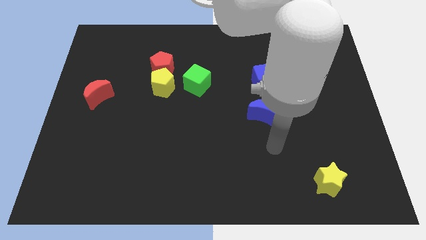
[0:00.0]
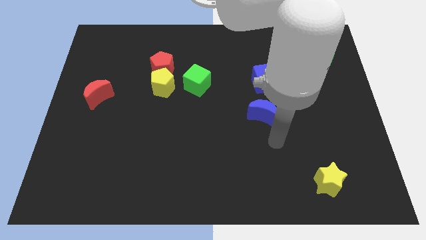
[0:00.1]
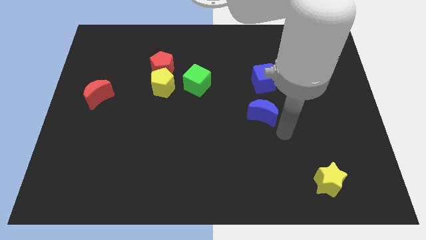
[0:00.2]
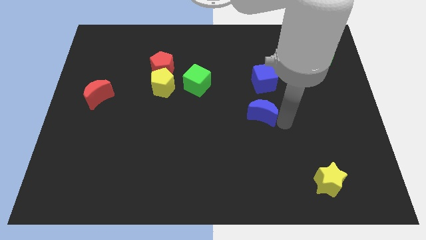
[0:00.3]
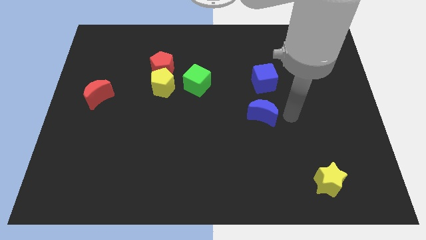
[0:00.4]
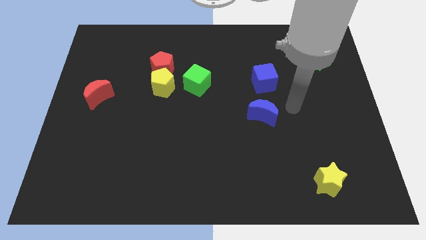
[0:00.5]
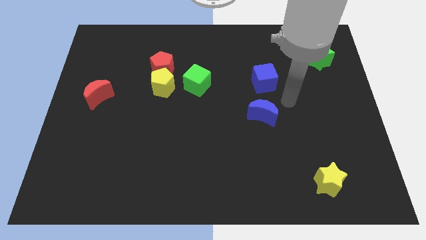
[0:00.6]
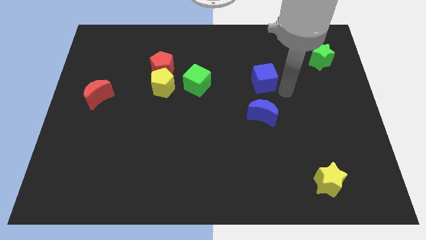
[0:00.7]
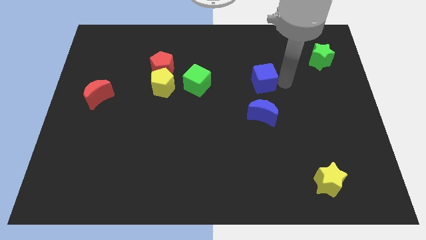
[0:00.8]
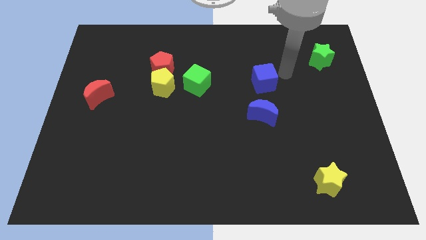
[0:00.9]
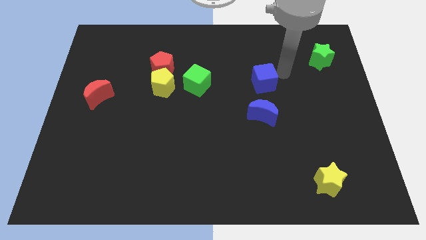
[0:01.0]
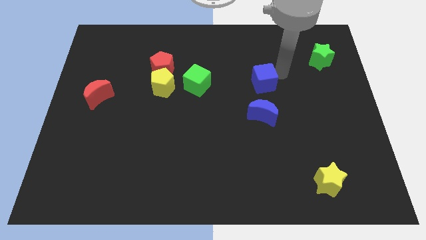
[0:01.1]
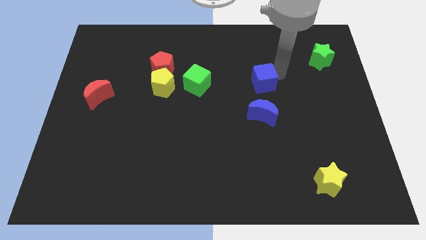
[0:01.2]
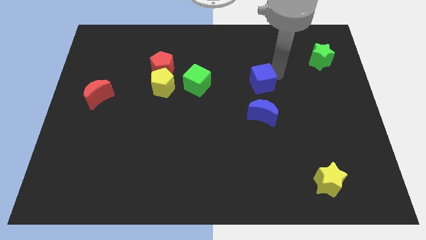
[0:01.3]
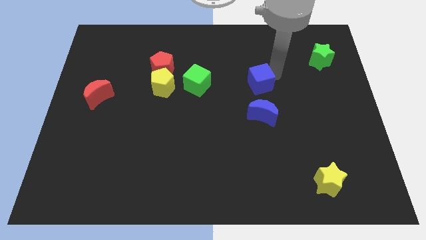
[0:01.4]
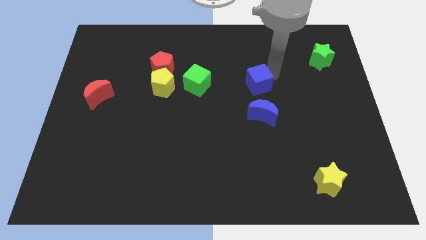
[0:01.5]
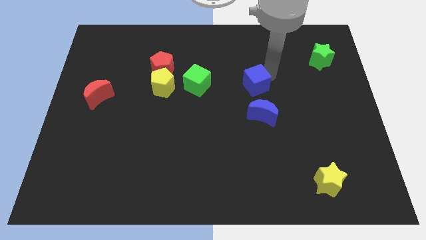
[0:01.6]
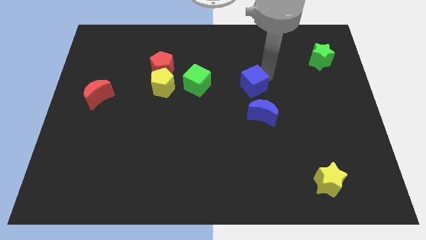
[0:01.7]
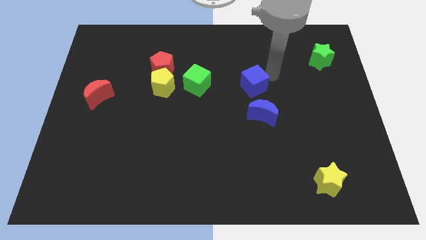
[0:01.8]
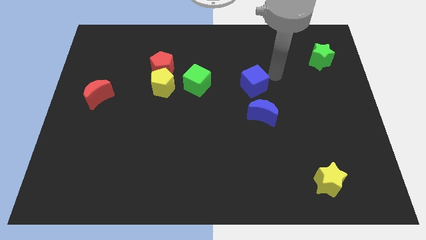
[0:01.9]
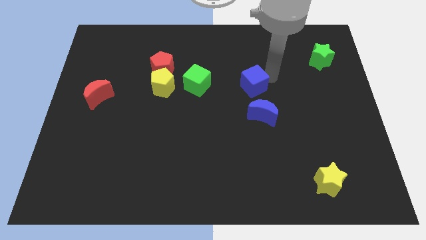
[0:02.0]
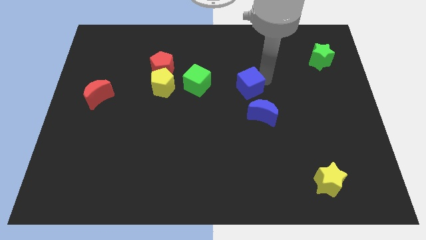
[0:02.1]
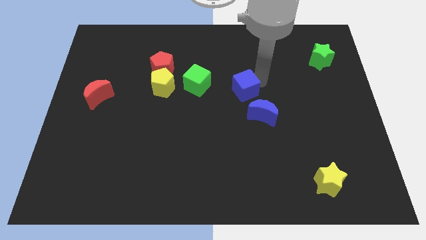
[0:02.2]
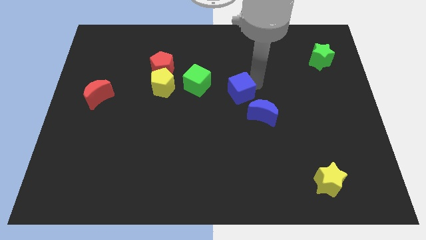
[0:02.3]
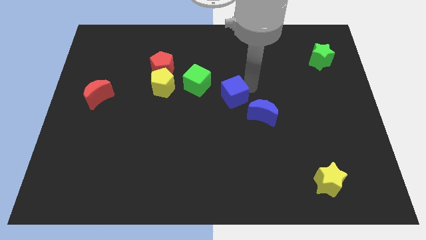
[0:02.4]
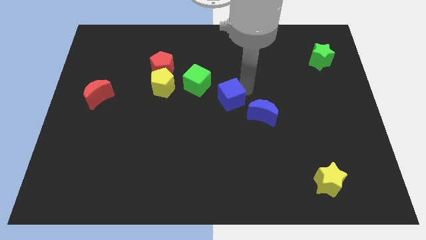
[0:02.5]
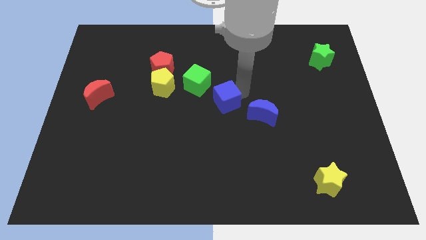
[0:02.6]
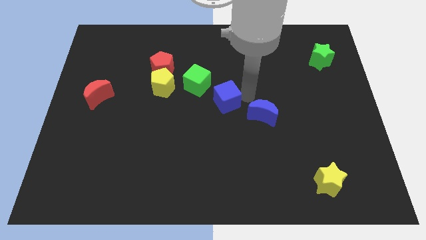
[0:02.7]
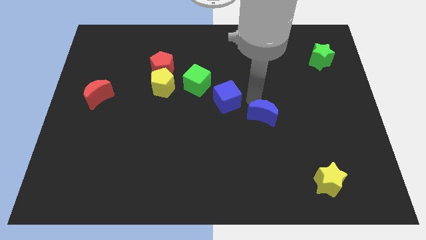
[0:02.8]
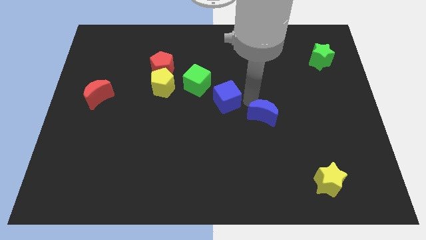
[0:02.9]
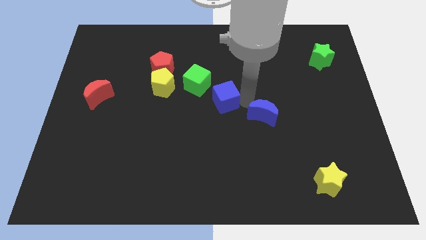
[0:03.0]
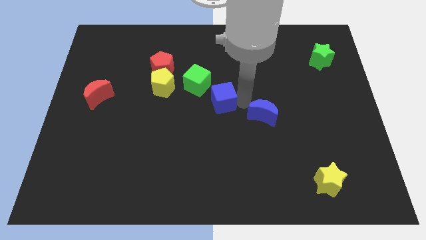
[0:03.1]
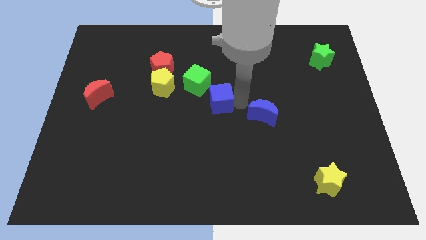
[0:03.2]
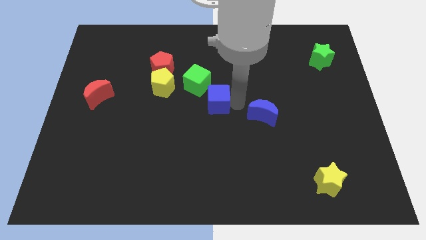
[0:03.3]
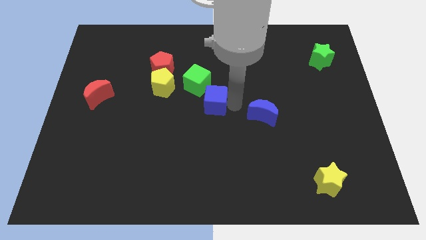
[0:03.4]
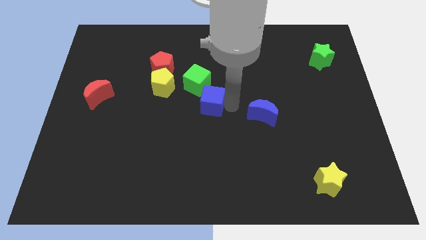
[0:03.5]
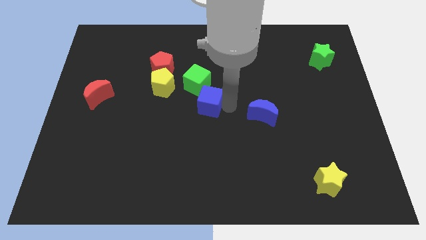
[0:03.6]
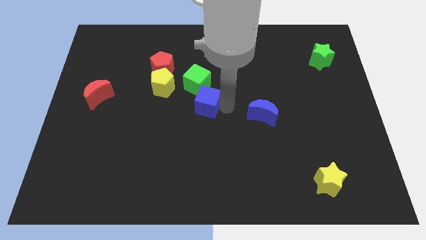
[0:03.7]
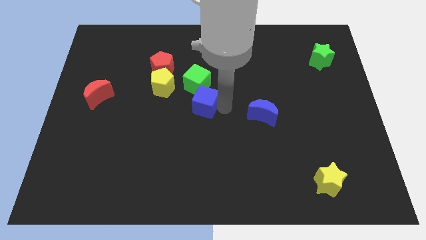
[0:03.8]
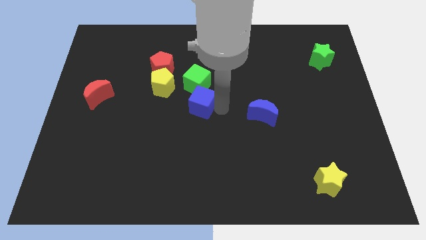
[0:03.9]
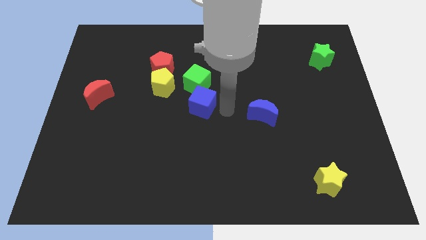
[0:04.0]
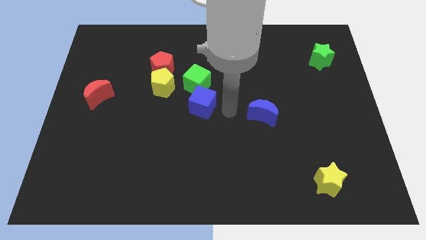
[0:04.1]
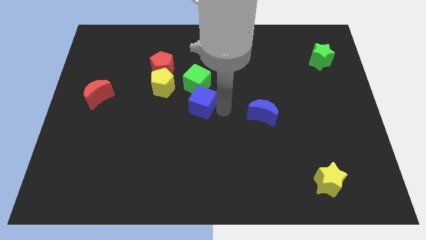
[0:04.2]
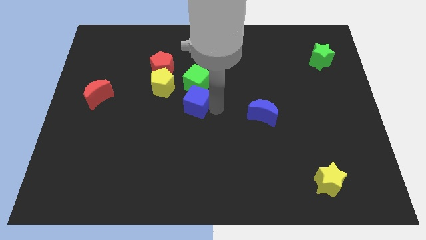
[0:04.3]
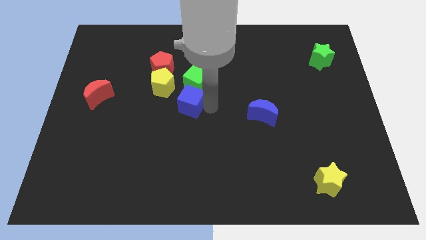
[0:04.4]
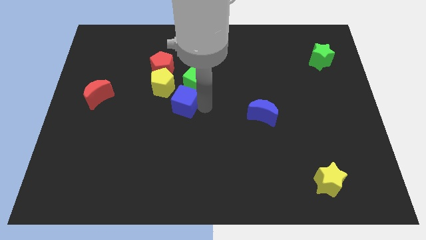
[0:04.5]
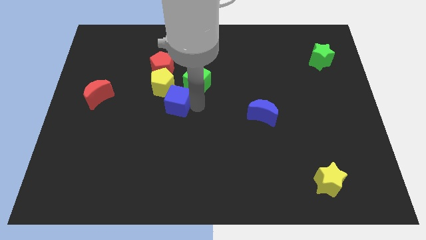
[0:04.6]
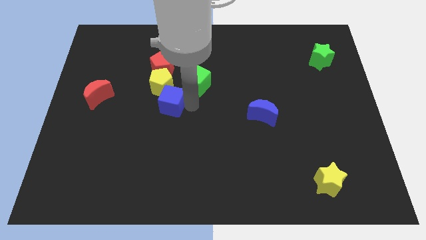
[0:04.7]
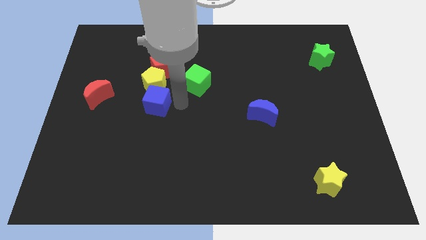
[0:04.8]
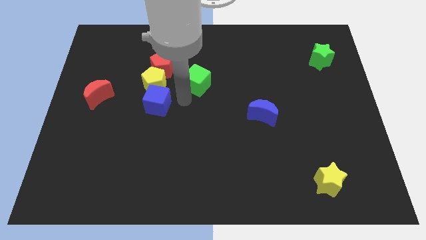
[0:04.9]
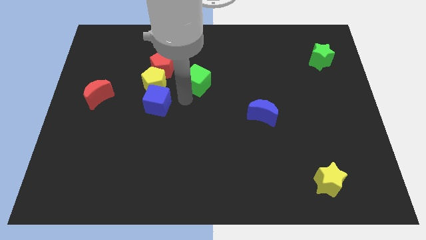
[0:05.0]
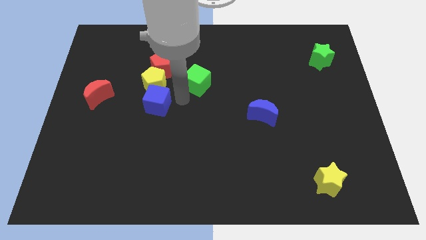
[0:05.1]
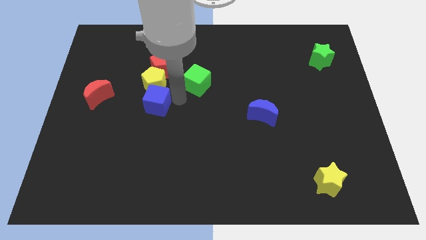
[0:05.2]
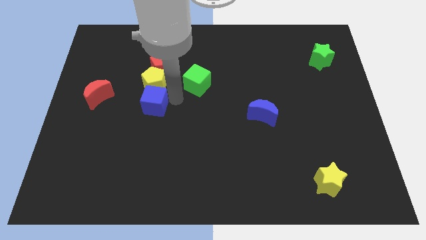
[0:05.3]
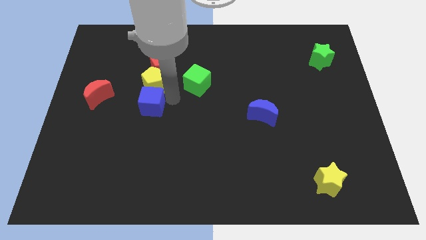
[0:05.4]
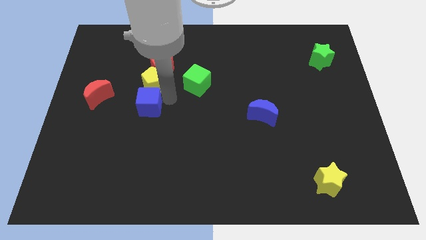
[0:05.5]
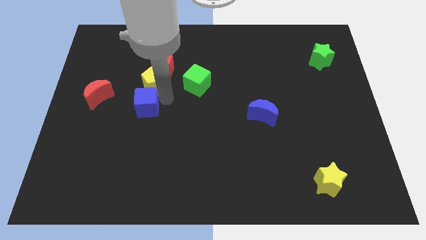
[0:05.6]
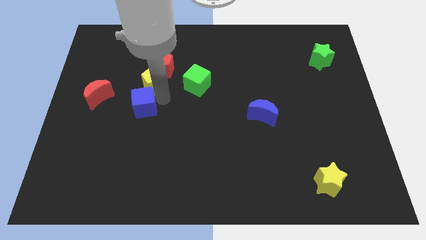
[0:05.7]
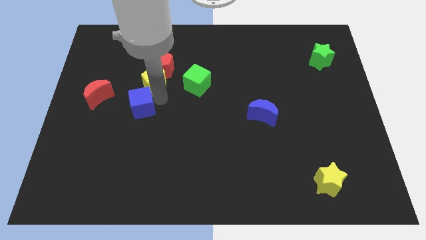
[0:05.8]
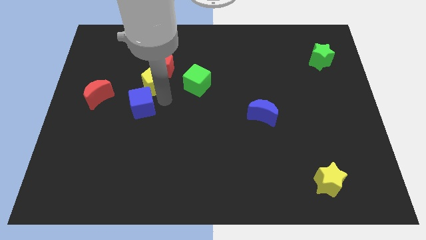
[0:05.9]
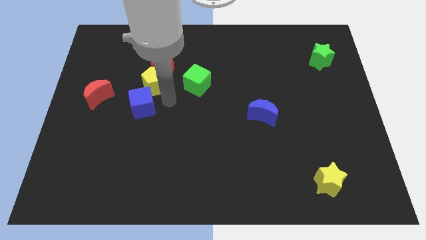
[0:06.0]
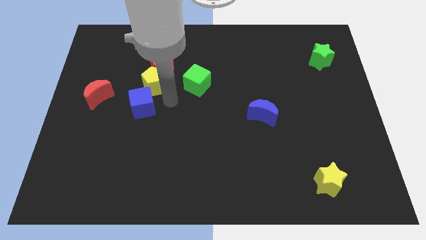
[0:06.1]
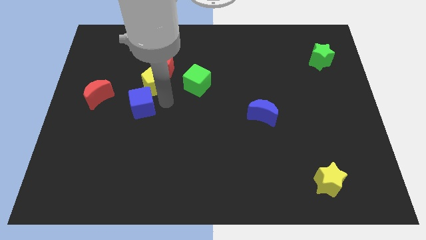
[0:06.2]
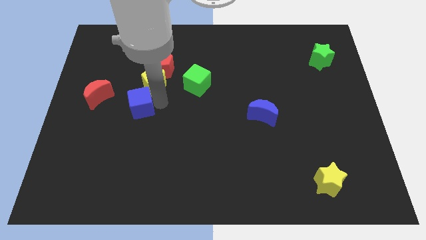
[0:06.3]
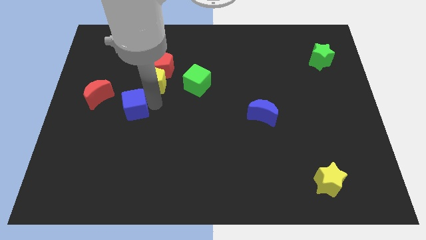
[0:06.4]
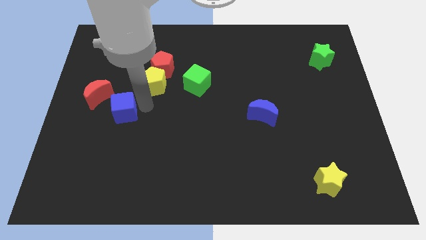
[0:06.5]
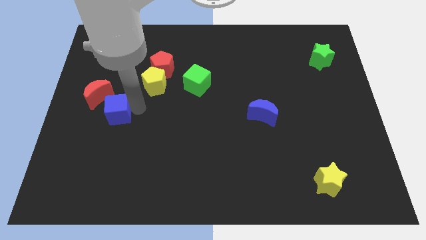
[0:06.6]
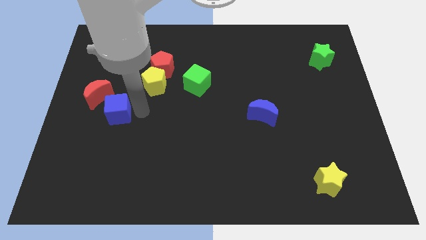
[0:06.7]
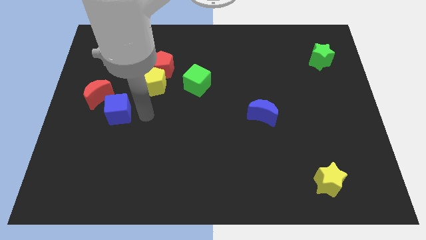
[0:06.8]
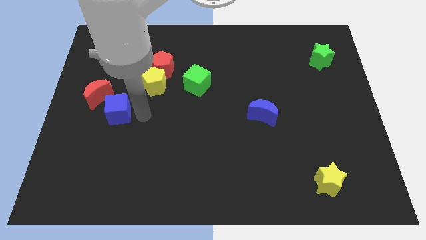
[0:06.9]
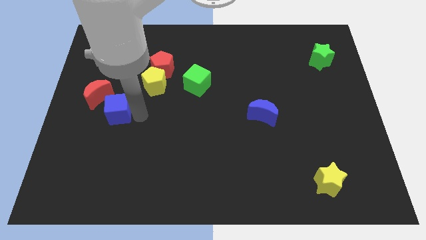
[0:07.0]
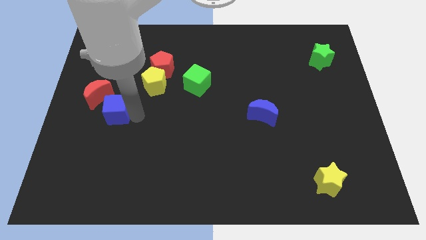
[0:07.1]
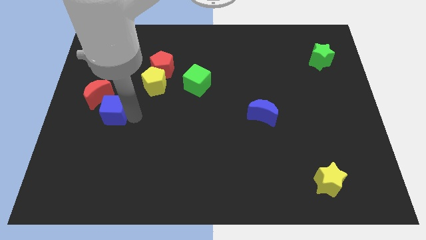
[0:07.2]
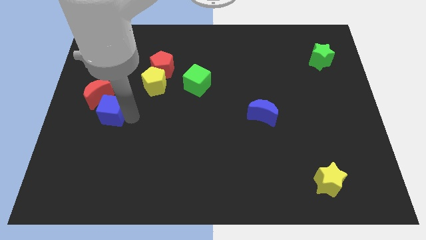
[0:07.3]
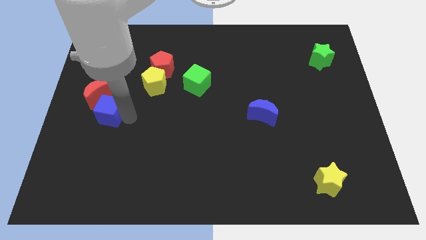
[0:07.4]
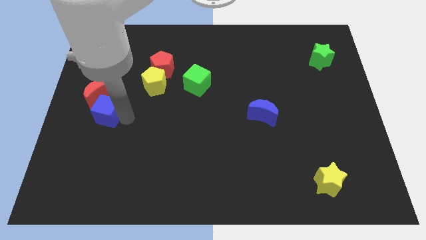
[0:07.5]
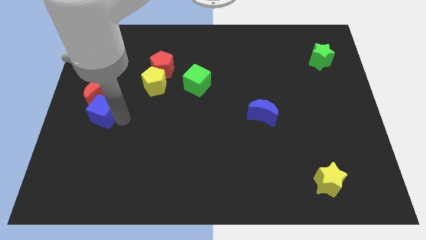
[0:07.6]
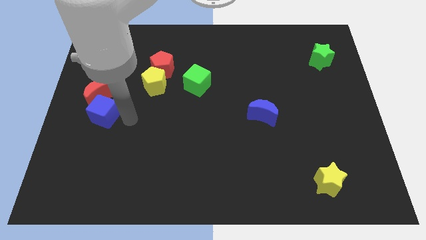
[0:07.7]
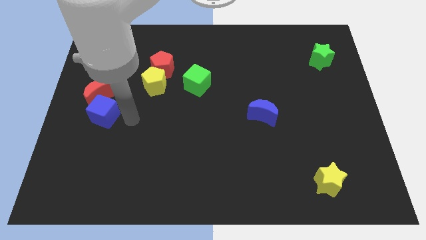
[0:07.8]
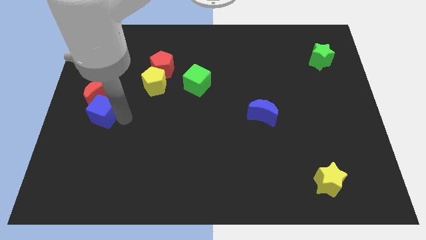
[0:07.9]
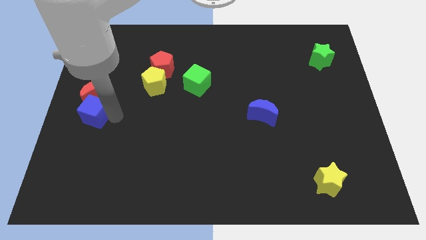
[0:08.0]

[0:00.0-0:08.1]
slide the blue cube to the left side
